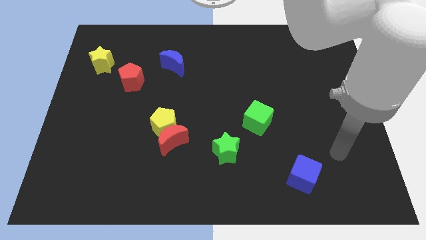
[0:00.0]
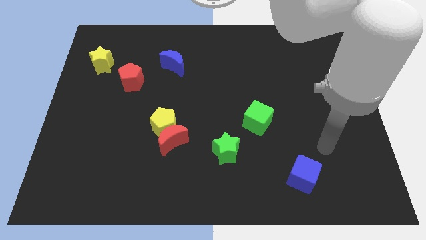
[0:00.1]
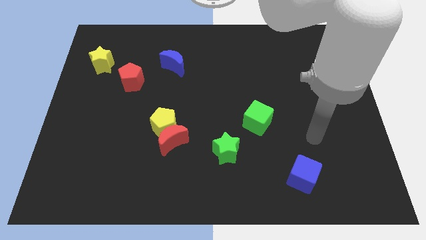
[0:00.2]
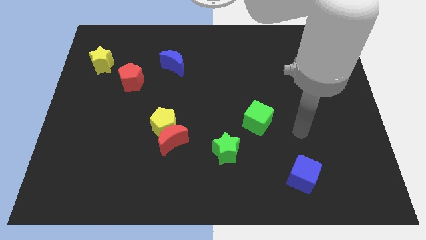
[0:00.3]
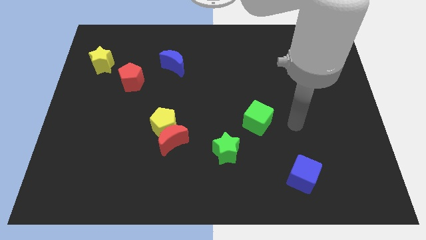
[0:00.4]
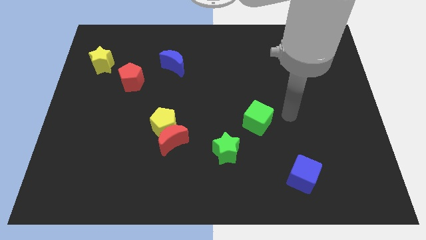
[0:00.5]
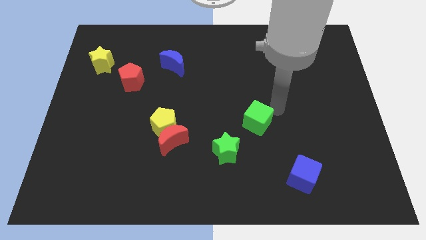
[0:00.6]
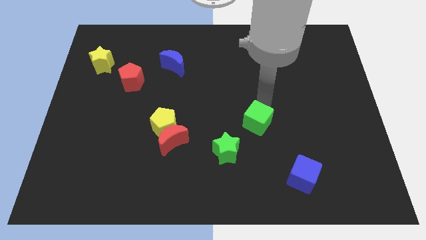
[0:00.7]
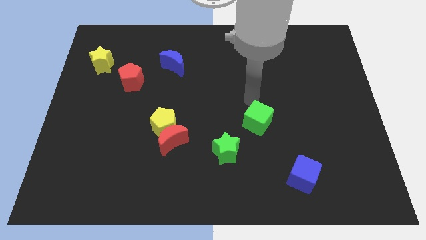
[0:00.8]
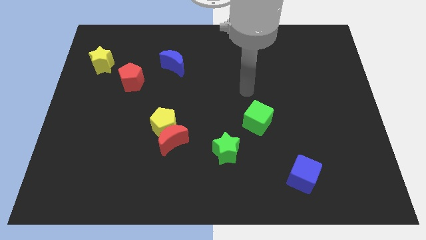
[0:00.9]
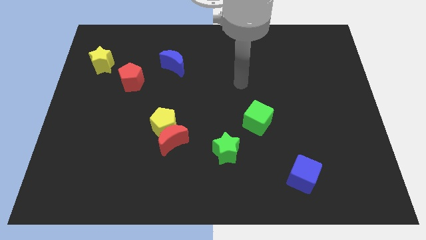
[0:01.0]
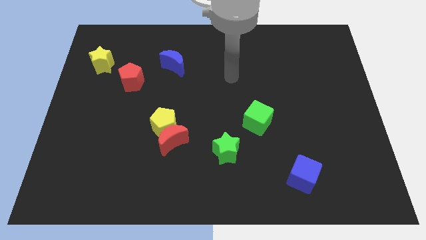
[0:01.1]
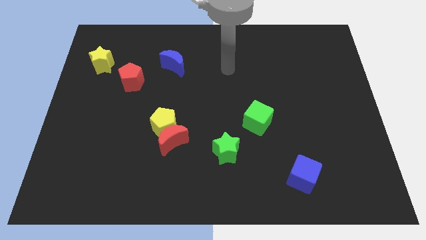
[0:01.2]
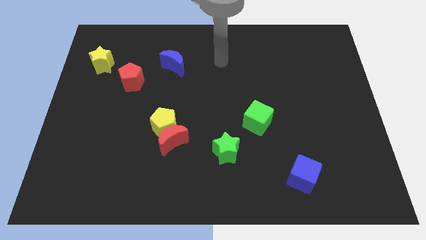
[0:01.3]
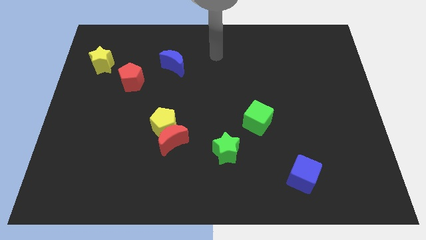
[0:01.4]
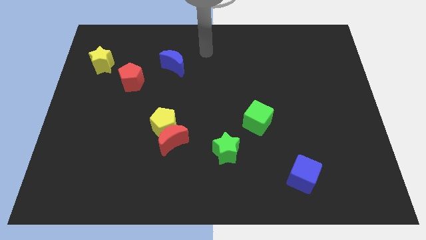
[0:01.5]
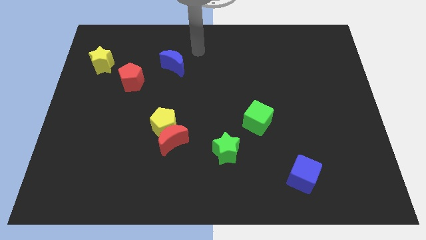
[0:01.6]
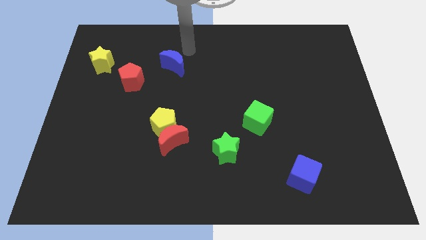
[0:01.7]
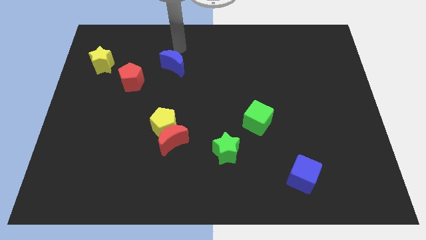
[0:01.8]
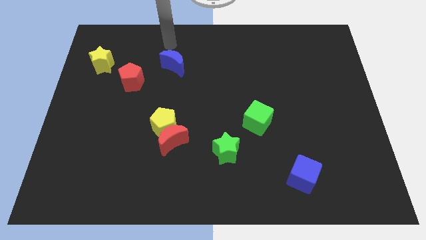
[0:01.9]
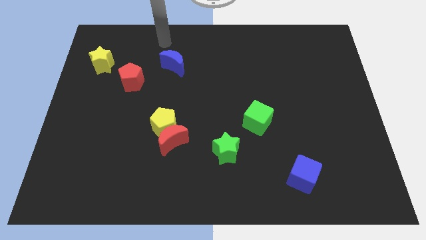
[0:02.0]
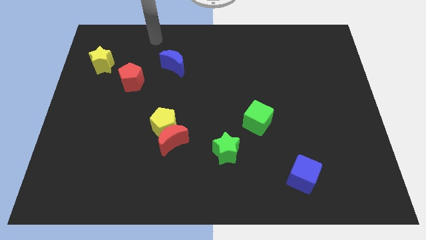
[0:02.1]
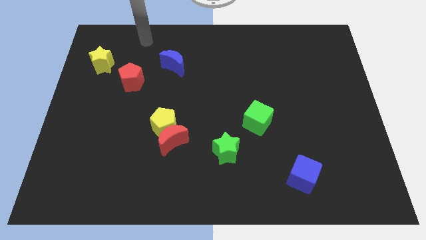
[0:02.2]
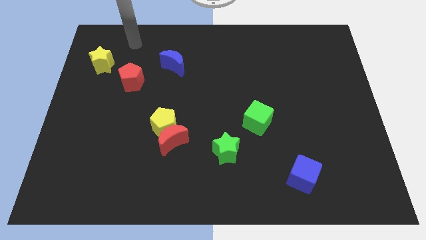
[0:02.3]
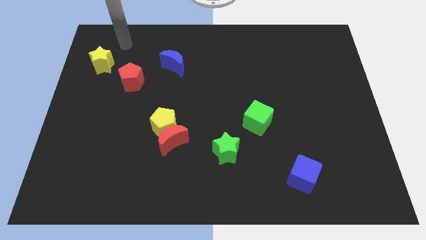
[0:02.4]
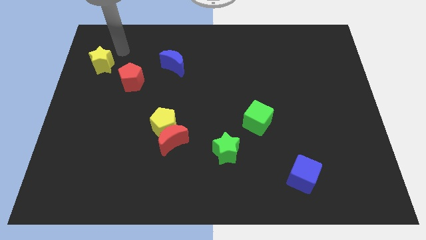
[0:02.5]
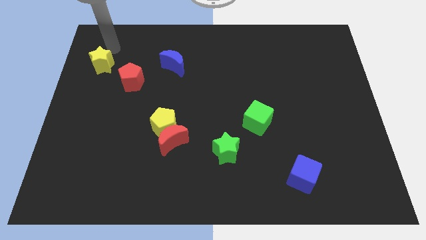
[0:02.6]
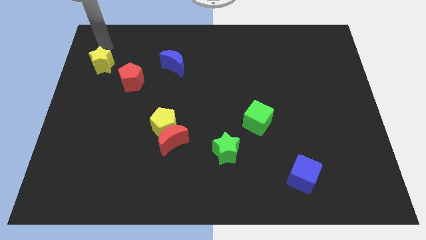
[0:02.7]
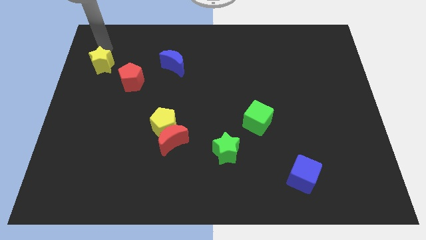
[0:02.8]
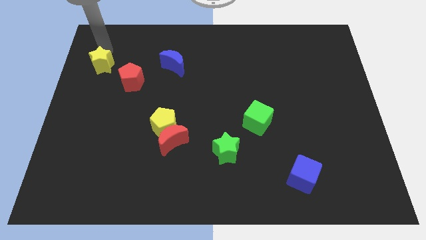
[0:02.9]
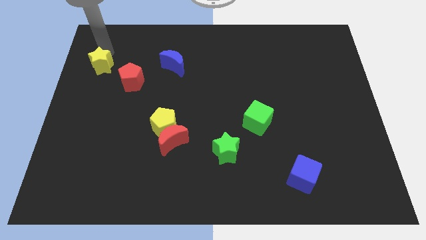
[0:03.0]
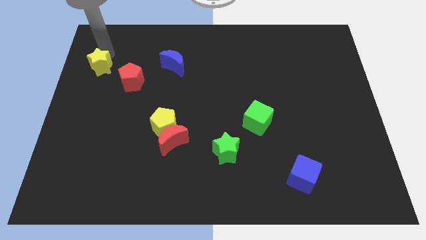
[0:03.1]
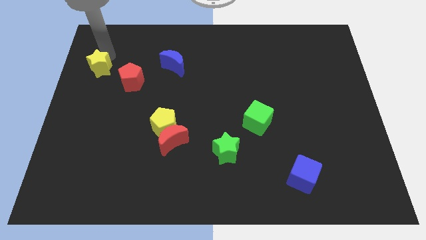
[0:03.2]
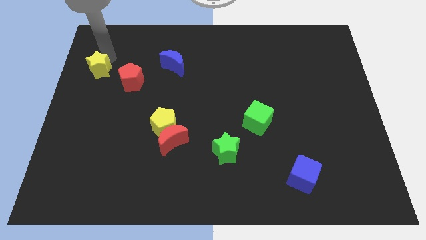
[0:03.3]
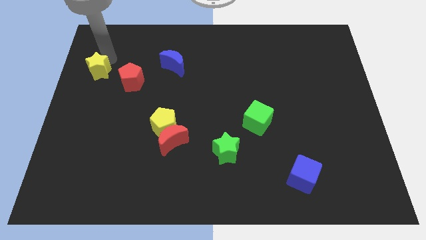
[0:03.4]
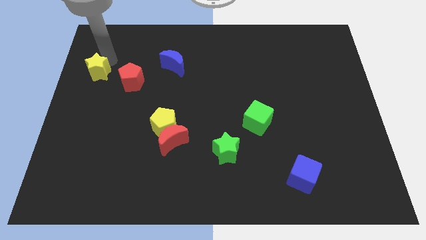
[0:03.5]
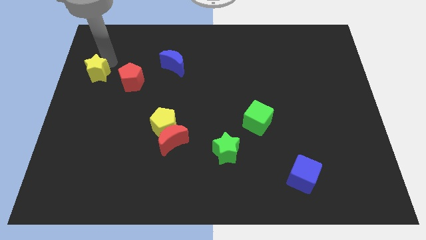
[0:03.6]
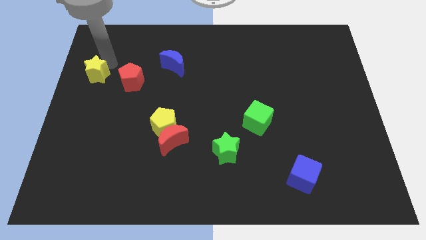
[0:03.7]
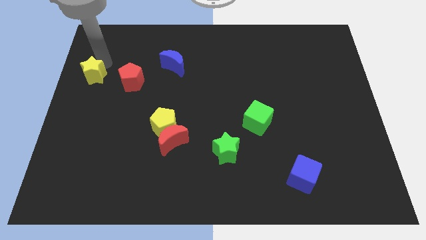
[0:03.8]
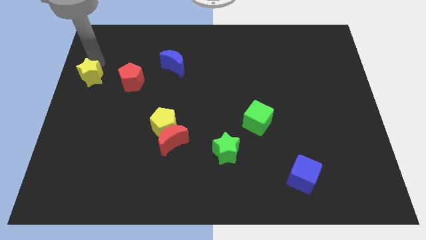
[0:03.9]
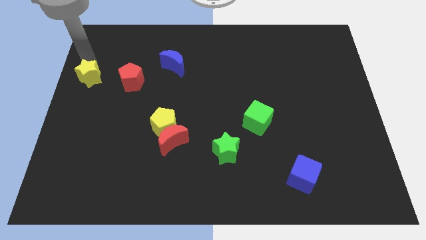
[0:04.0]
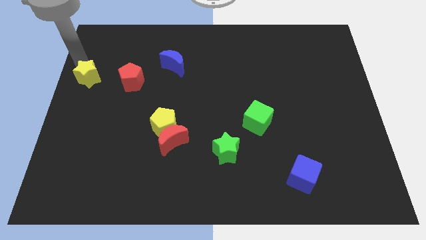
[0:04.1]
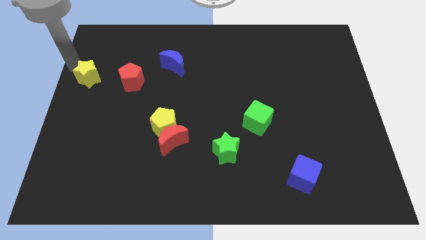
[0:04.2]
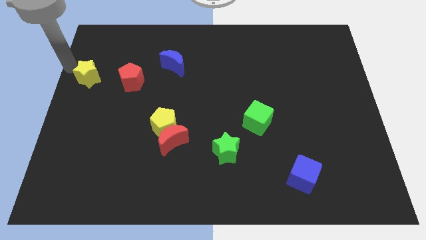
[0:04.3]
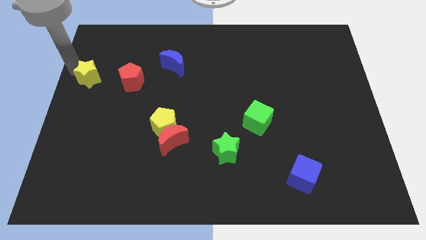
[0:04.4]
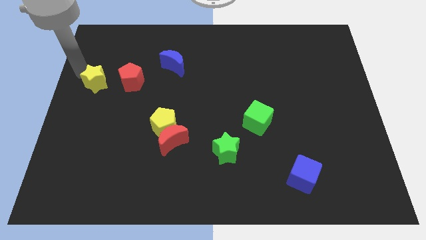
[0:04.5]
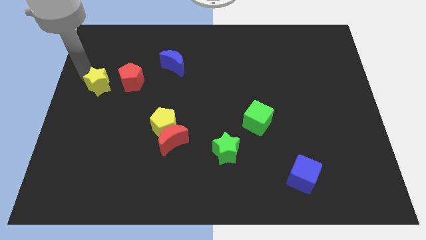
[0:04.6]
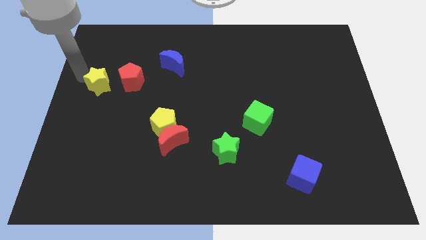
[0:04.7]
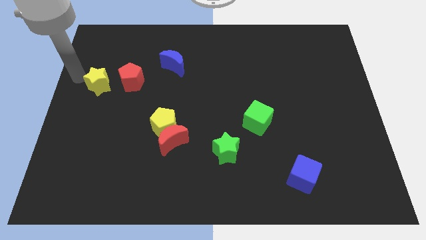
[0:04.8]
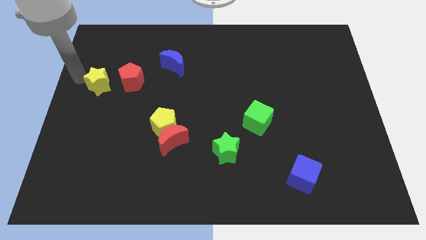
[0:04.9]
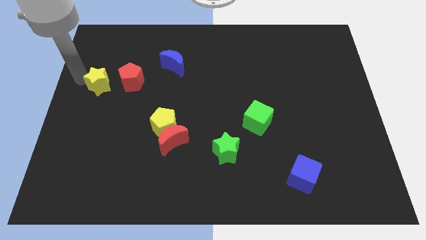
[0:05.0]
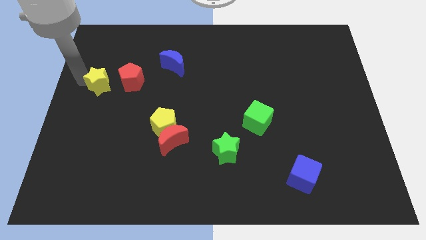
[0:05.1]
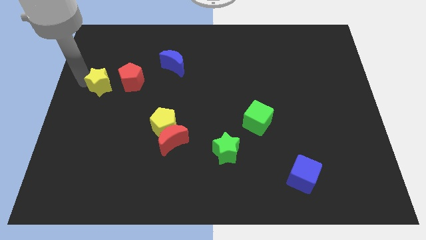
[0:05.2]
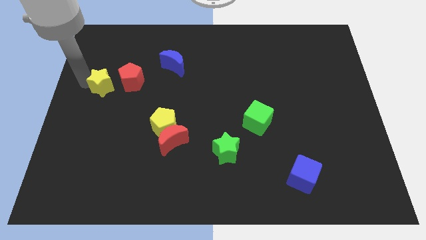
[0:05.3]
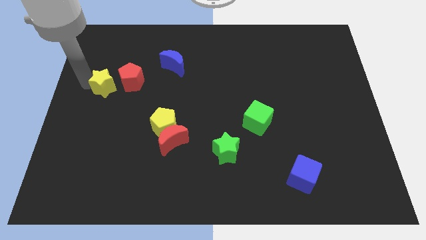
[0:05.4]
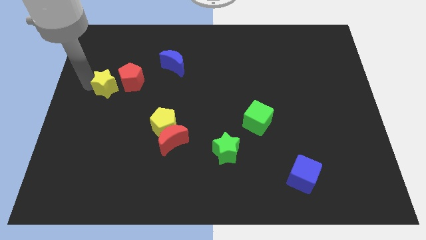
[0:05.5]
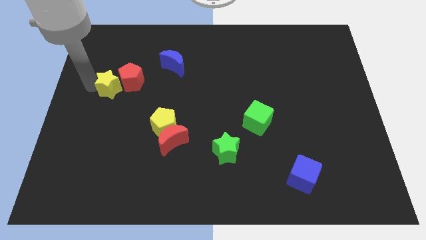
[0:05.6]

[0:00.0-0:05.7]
push the yellow star a little bit downwards and to the right

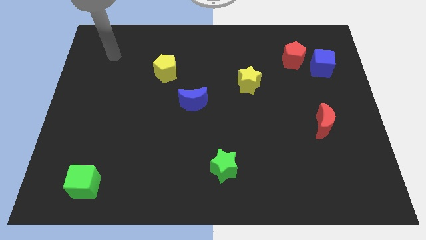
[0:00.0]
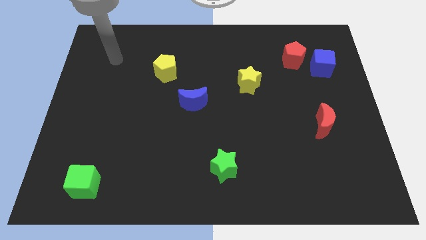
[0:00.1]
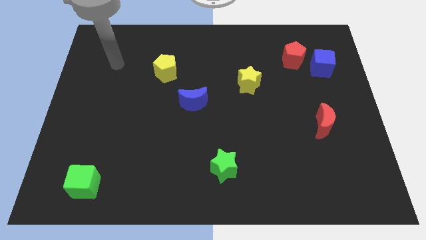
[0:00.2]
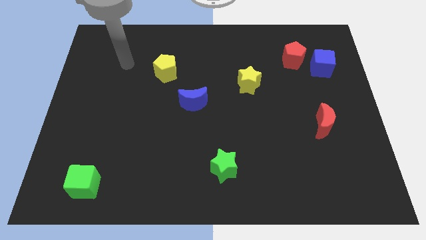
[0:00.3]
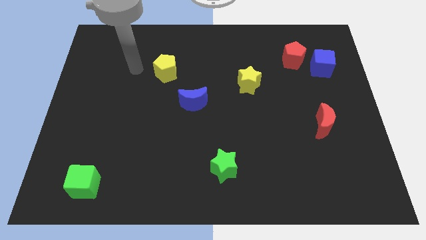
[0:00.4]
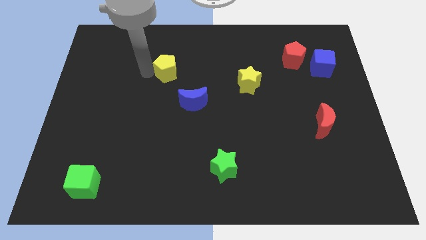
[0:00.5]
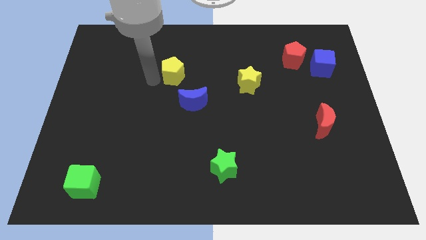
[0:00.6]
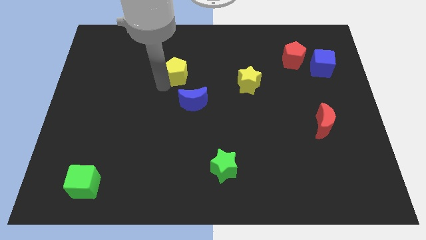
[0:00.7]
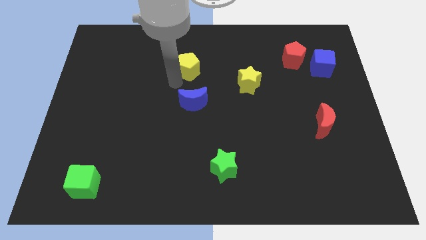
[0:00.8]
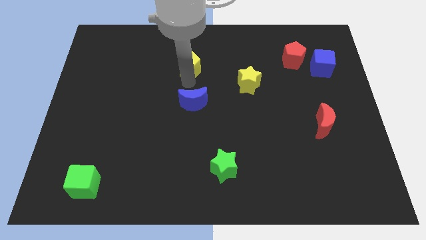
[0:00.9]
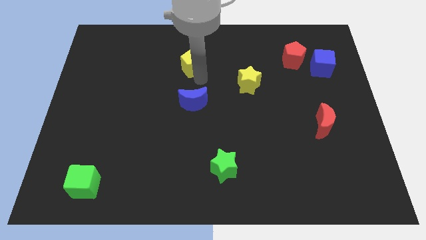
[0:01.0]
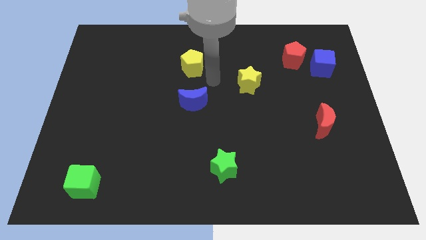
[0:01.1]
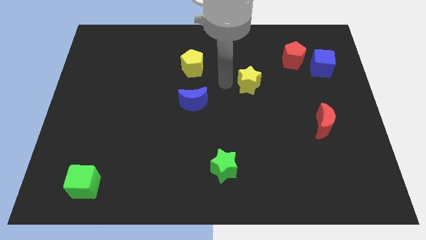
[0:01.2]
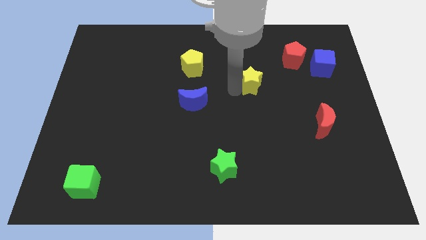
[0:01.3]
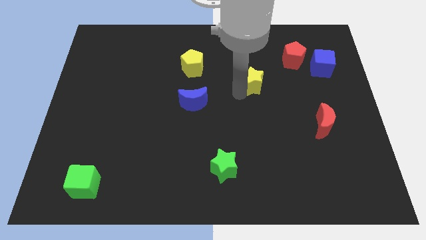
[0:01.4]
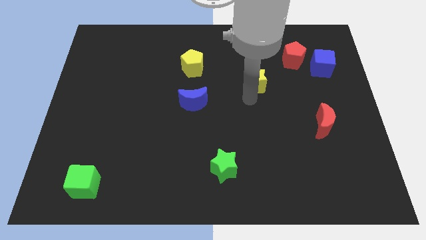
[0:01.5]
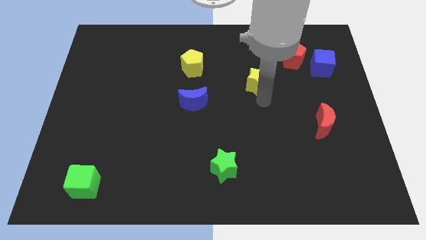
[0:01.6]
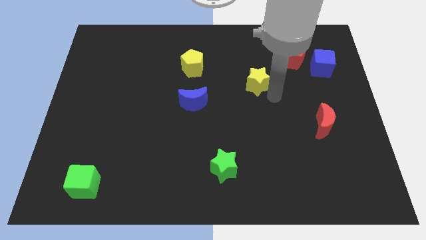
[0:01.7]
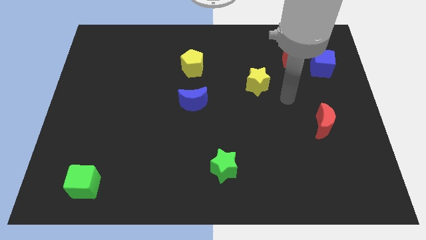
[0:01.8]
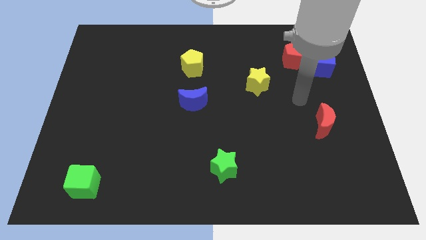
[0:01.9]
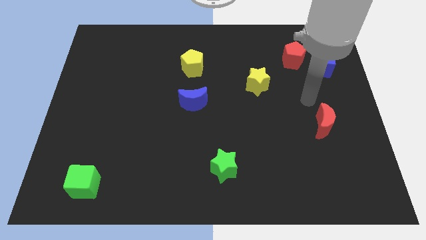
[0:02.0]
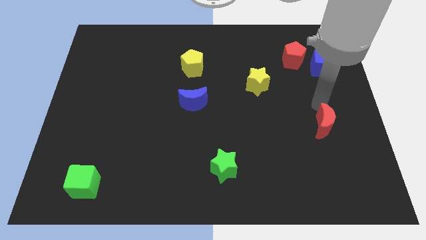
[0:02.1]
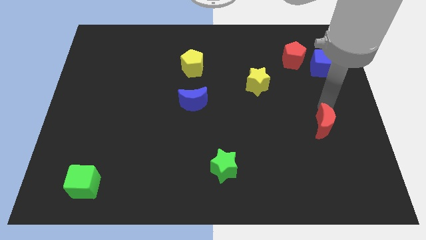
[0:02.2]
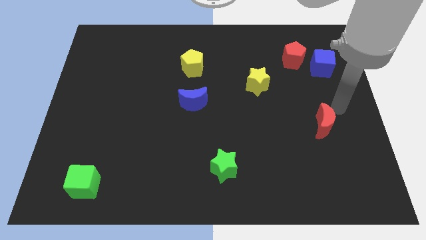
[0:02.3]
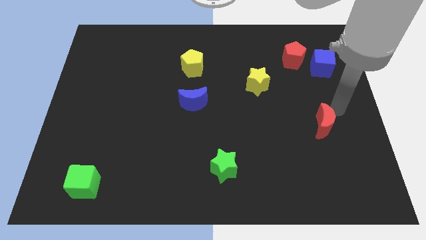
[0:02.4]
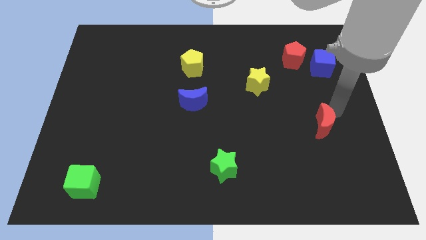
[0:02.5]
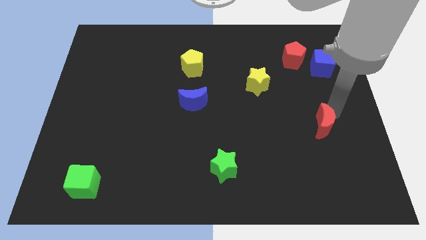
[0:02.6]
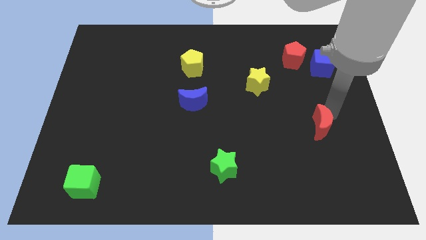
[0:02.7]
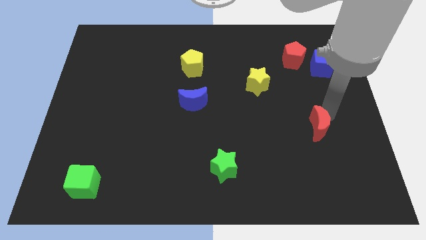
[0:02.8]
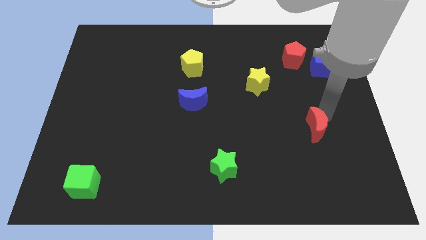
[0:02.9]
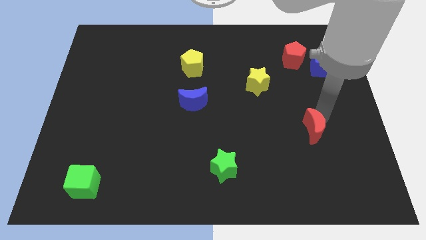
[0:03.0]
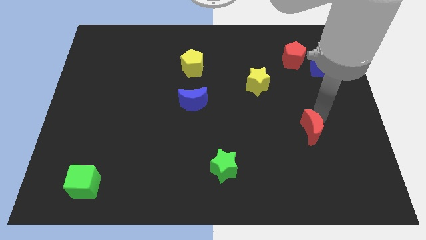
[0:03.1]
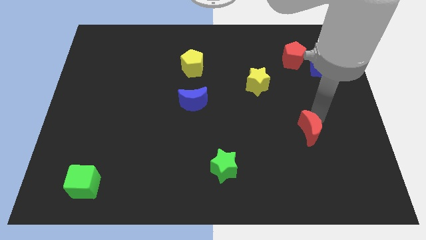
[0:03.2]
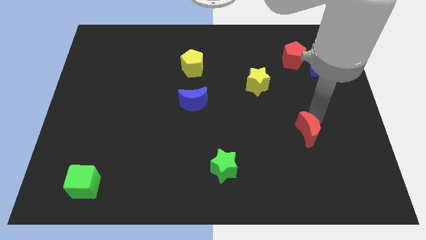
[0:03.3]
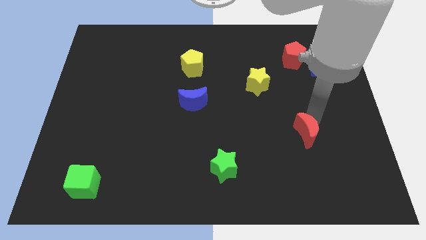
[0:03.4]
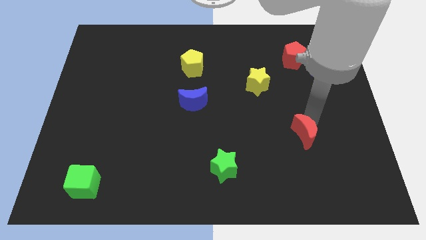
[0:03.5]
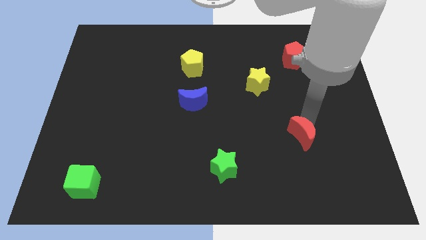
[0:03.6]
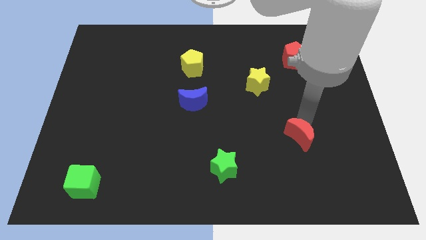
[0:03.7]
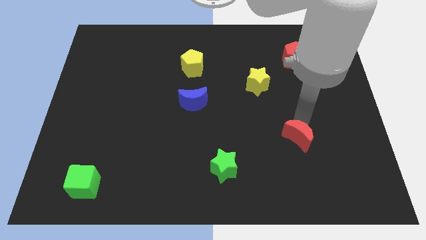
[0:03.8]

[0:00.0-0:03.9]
move the red moon down and to the left diagonally a bit
